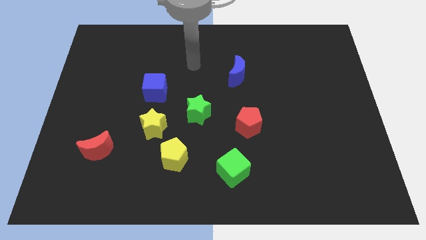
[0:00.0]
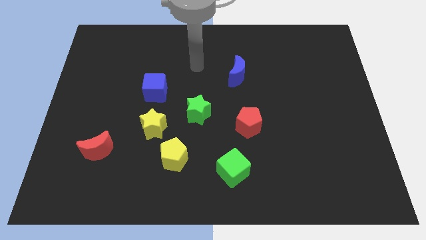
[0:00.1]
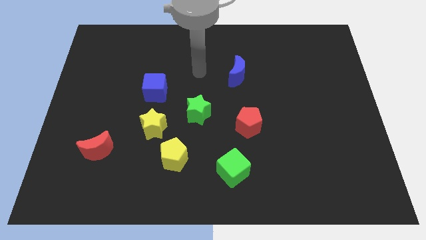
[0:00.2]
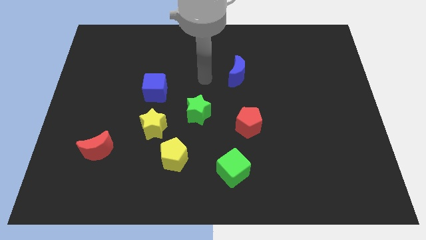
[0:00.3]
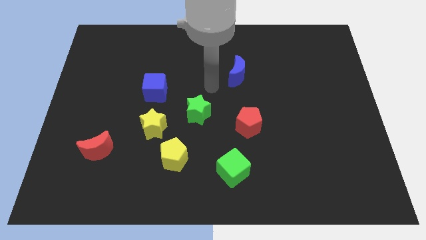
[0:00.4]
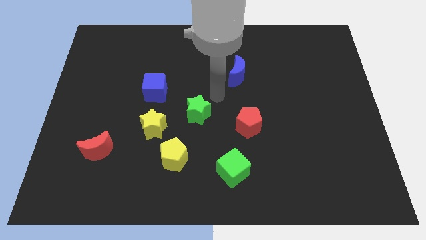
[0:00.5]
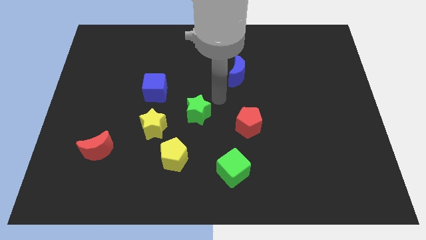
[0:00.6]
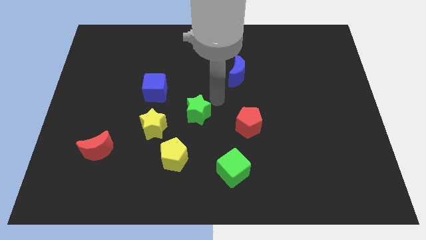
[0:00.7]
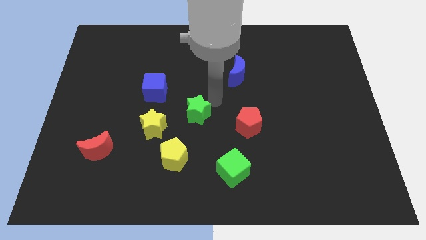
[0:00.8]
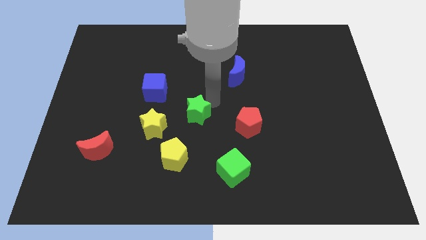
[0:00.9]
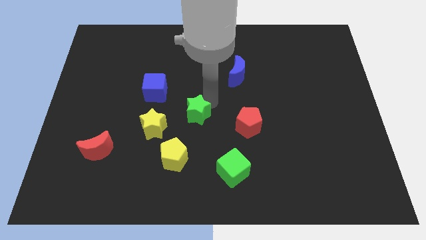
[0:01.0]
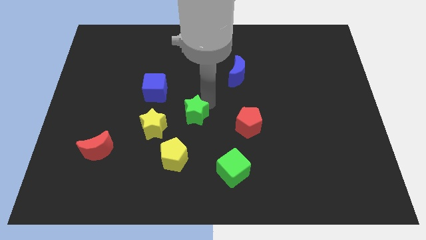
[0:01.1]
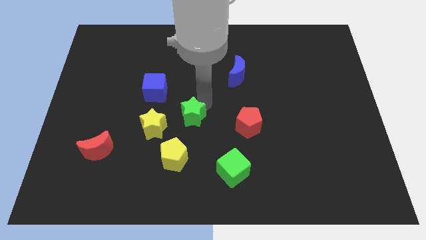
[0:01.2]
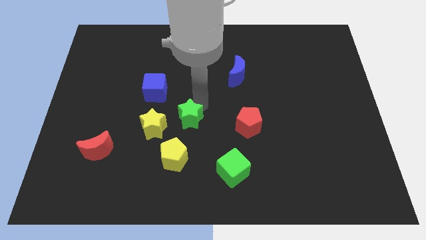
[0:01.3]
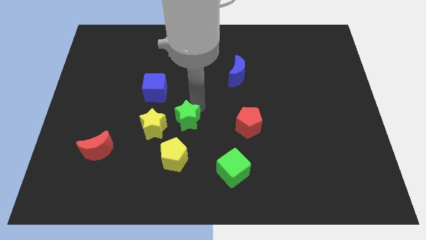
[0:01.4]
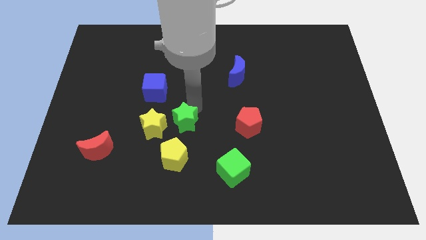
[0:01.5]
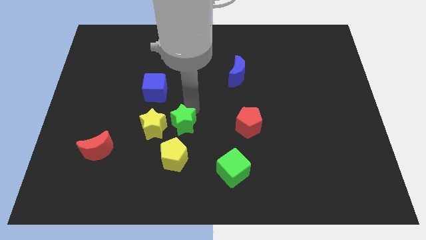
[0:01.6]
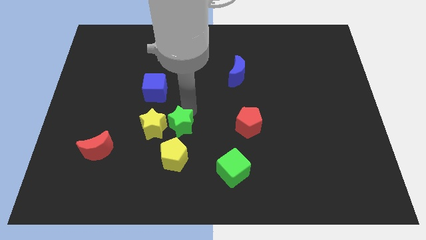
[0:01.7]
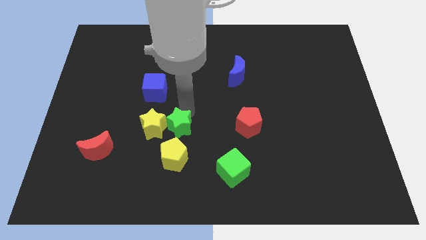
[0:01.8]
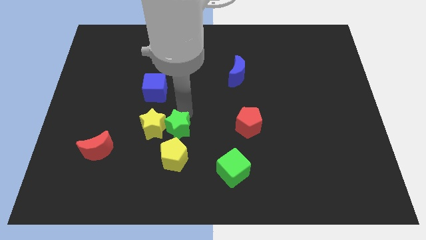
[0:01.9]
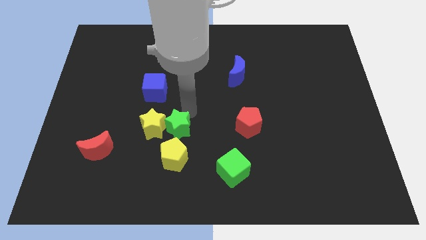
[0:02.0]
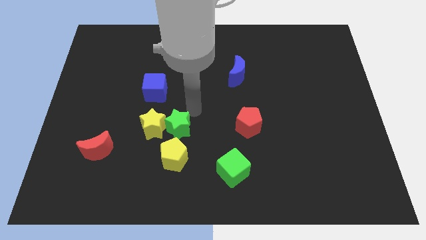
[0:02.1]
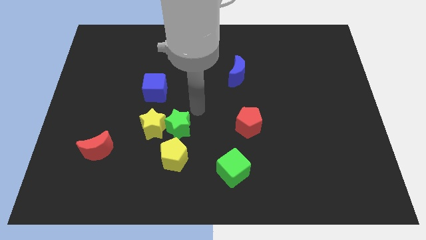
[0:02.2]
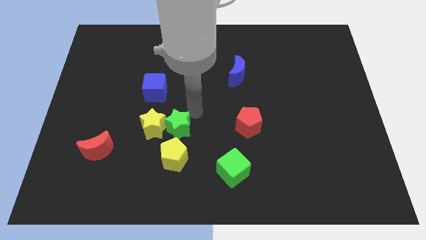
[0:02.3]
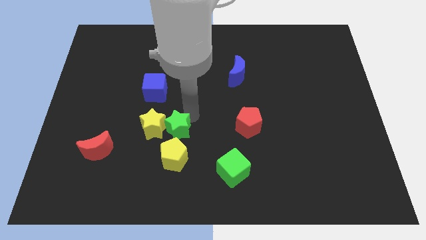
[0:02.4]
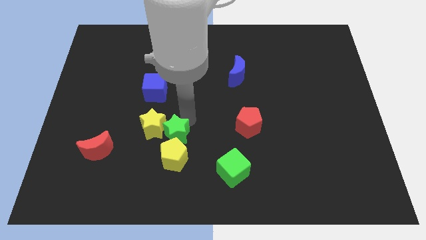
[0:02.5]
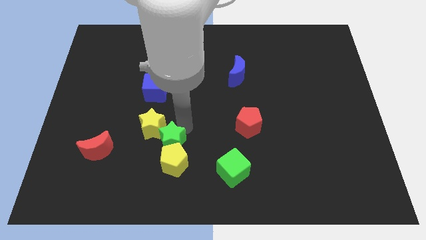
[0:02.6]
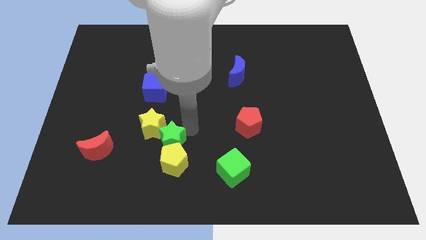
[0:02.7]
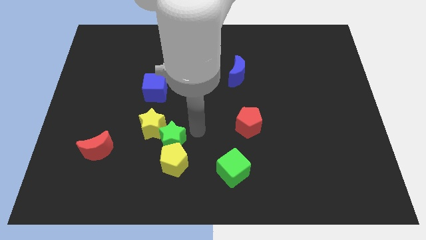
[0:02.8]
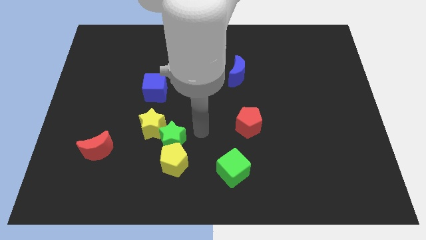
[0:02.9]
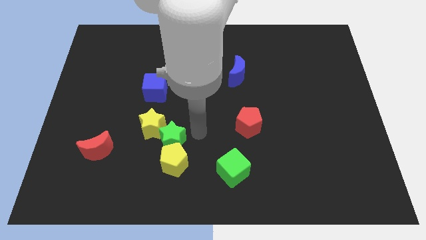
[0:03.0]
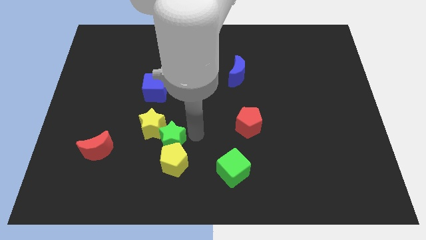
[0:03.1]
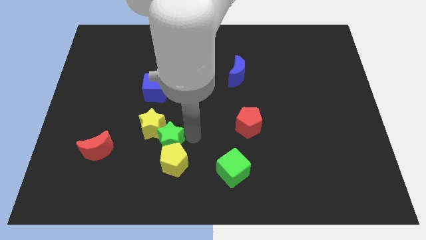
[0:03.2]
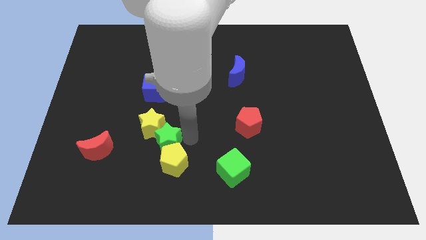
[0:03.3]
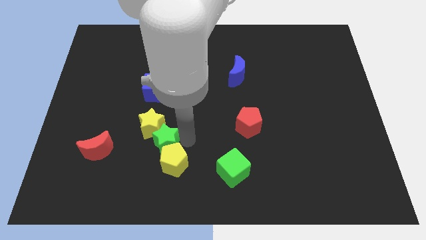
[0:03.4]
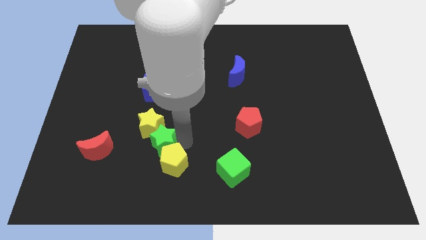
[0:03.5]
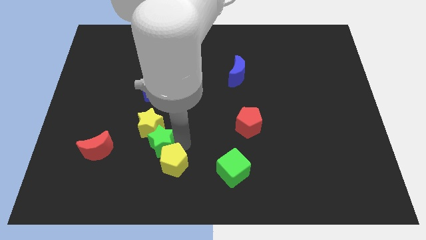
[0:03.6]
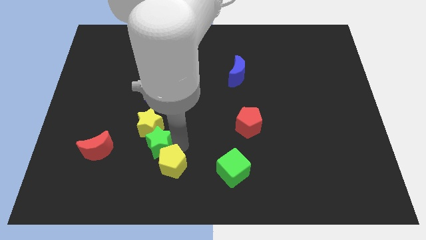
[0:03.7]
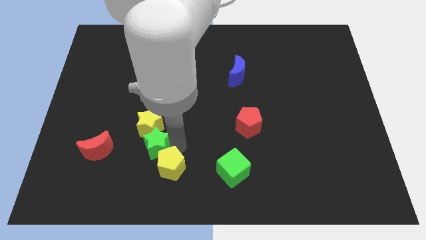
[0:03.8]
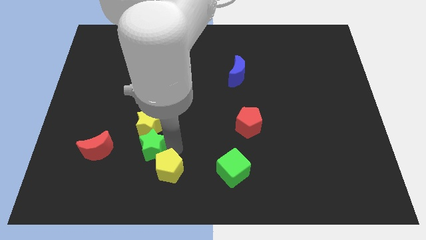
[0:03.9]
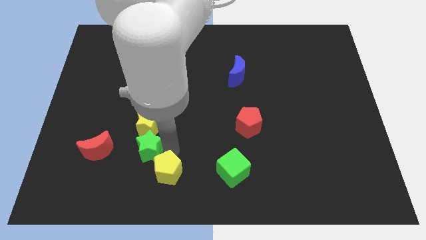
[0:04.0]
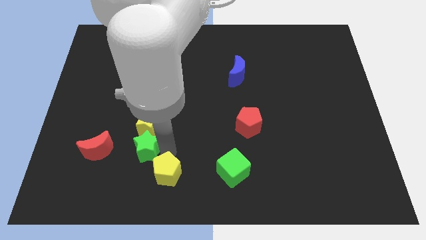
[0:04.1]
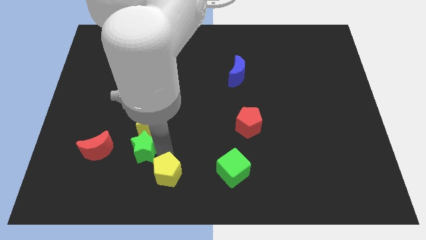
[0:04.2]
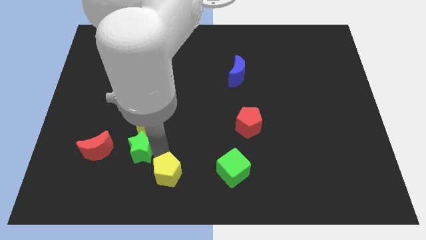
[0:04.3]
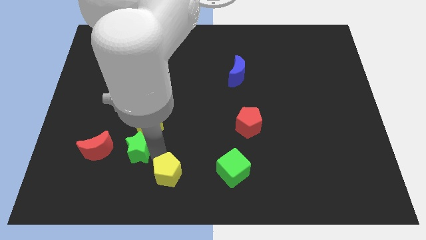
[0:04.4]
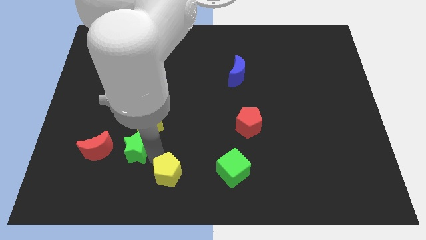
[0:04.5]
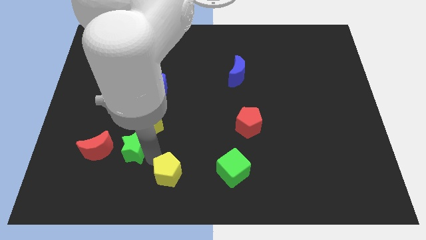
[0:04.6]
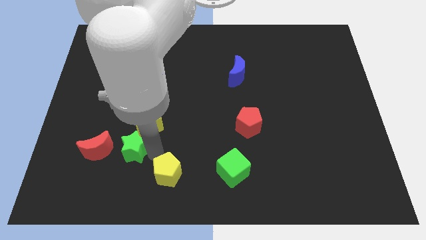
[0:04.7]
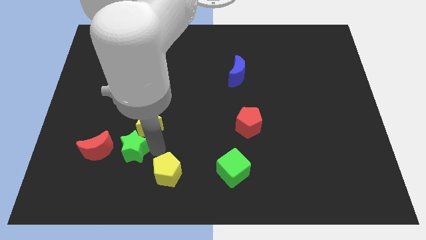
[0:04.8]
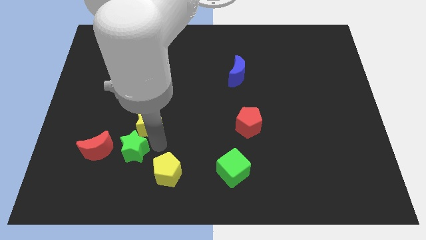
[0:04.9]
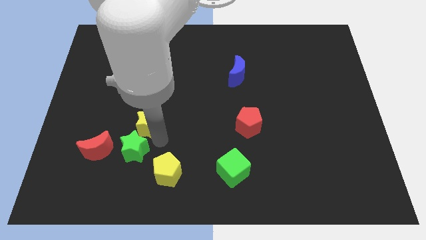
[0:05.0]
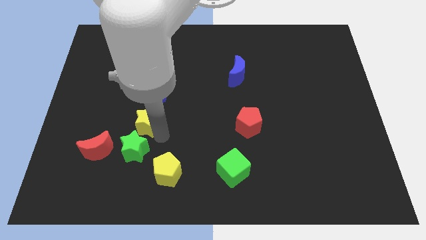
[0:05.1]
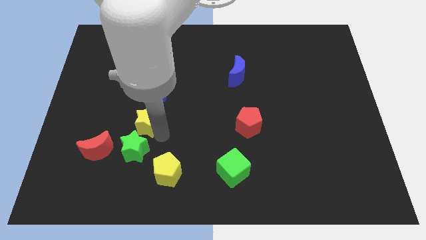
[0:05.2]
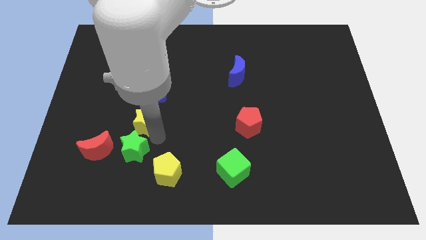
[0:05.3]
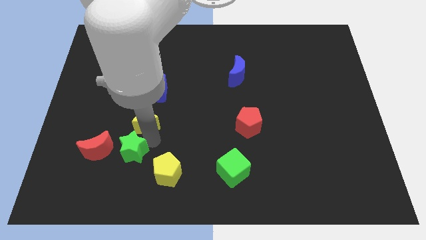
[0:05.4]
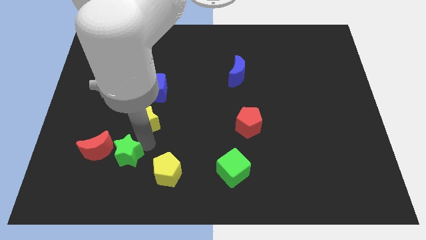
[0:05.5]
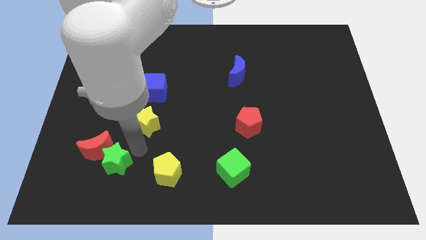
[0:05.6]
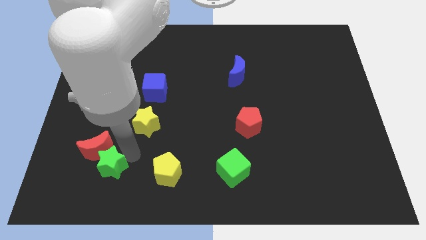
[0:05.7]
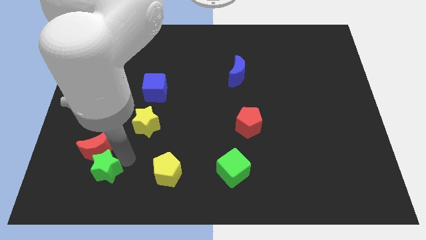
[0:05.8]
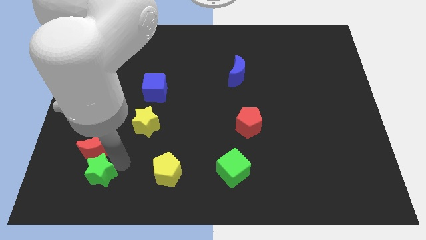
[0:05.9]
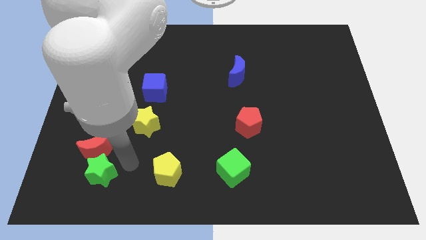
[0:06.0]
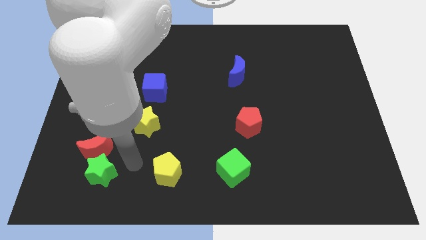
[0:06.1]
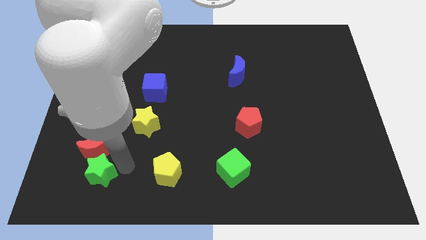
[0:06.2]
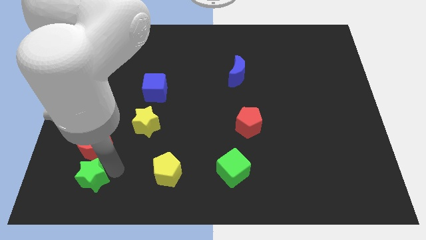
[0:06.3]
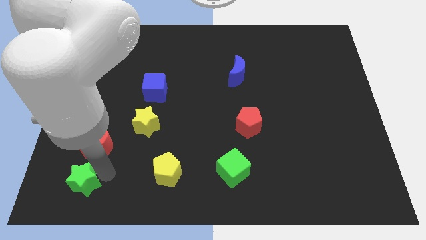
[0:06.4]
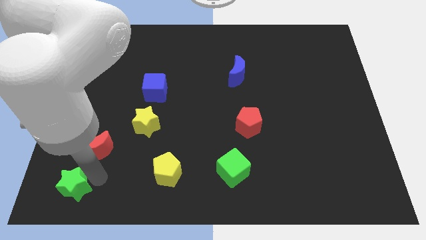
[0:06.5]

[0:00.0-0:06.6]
slide the green star to the bottom left

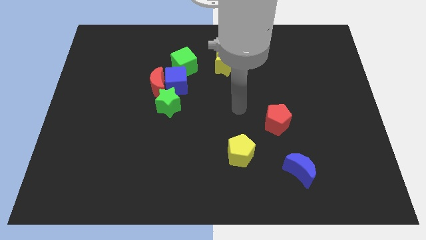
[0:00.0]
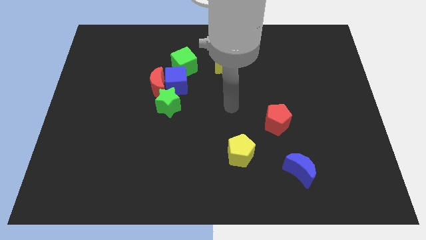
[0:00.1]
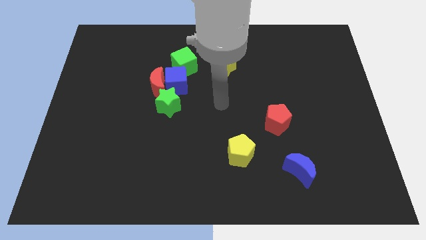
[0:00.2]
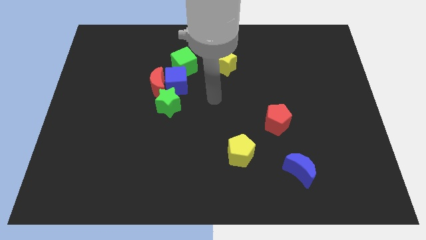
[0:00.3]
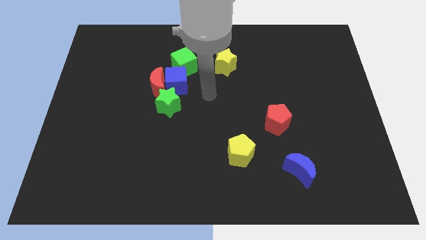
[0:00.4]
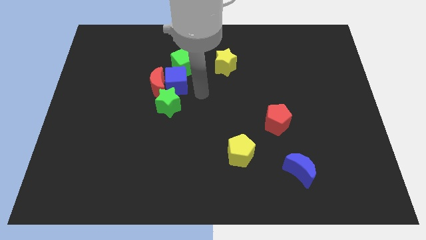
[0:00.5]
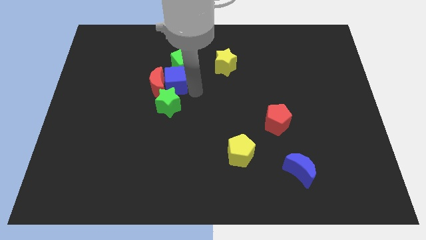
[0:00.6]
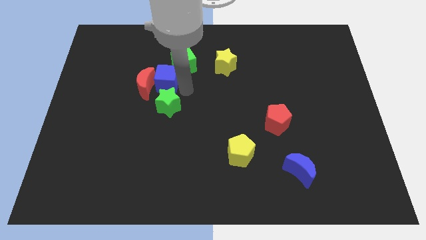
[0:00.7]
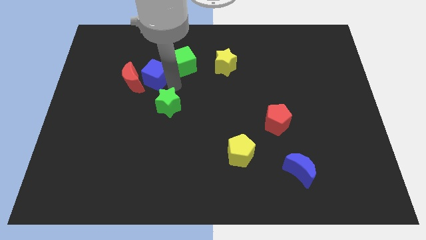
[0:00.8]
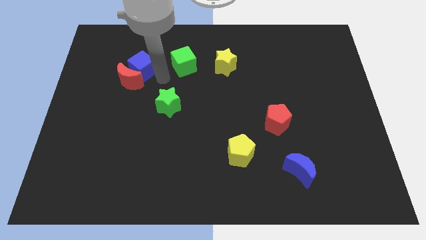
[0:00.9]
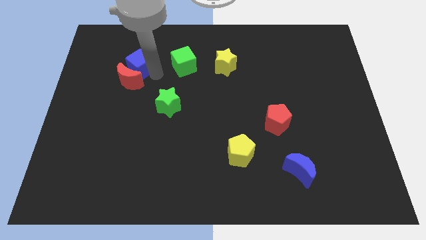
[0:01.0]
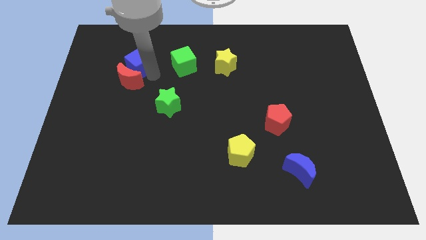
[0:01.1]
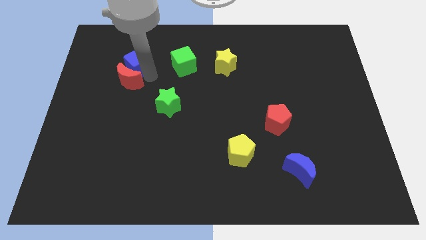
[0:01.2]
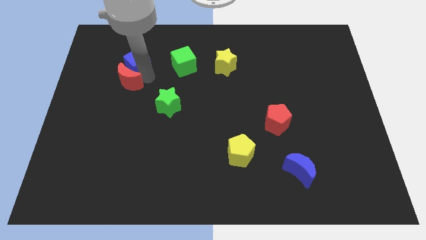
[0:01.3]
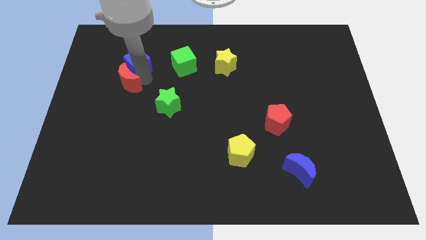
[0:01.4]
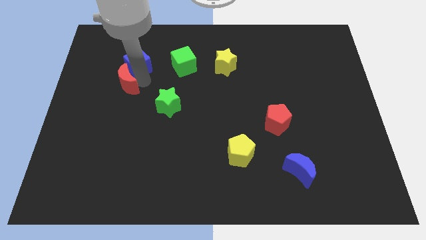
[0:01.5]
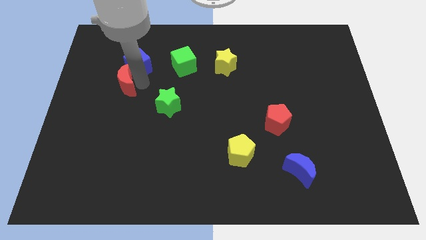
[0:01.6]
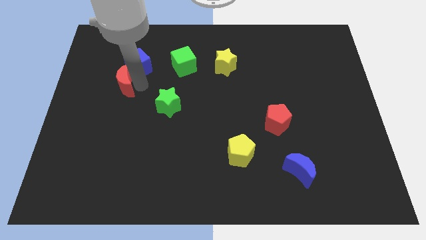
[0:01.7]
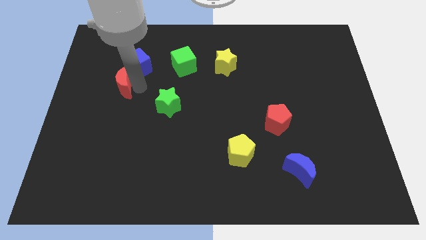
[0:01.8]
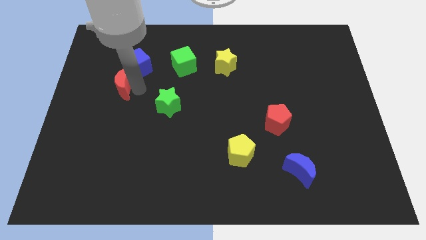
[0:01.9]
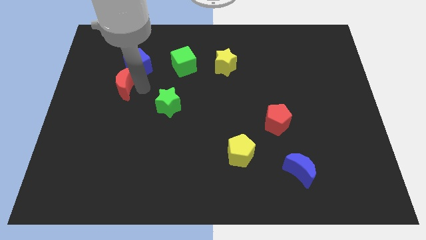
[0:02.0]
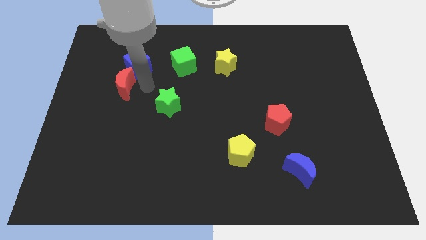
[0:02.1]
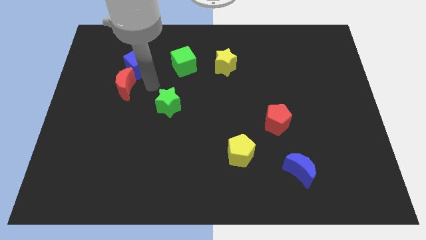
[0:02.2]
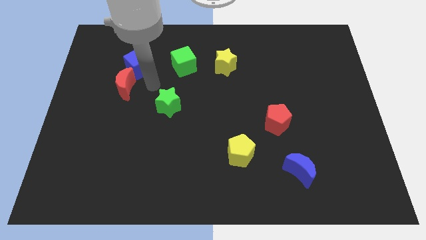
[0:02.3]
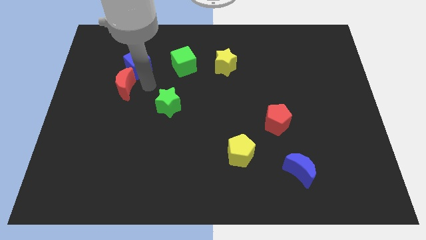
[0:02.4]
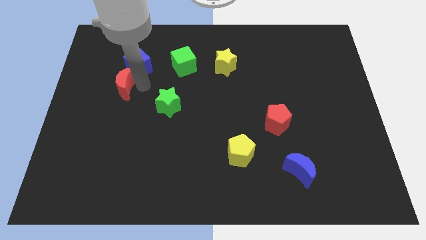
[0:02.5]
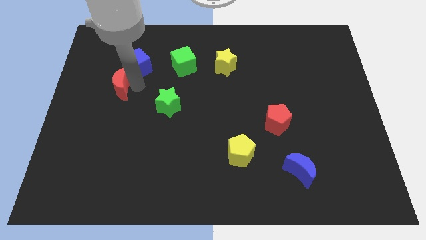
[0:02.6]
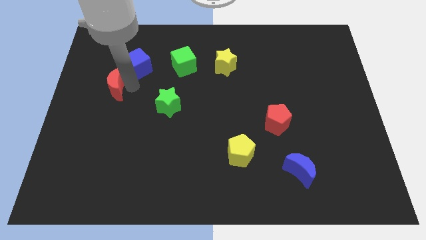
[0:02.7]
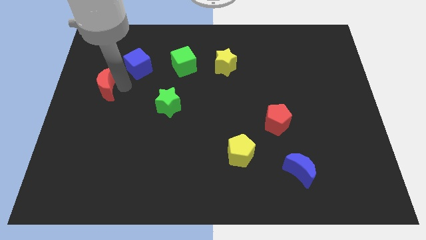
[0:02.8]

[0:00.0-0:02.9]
slide the red moon to the left side
